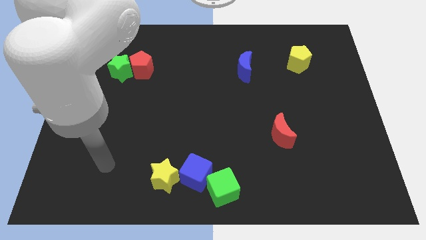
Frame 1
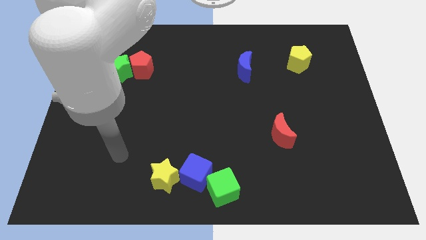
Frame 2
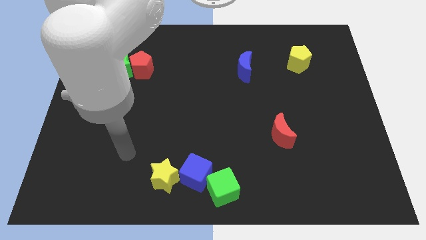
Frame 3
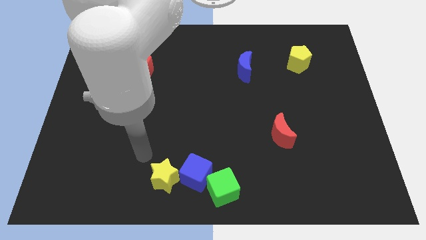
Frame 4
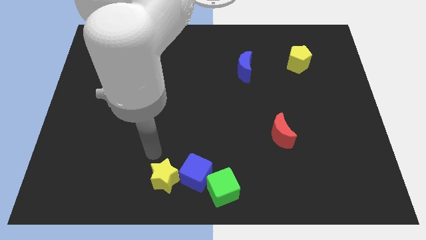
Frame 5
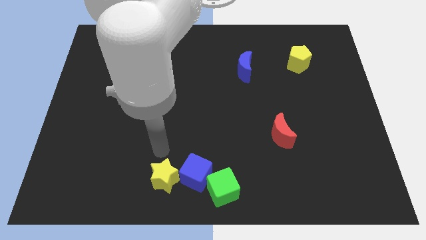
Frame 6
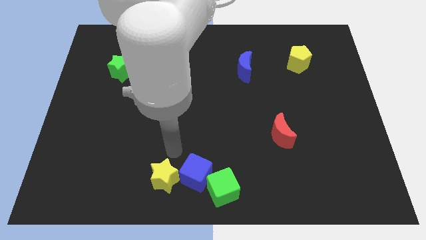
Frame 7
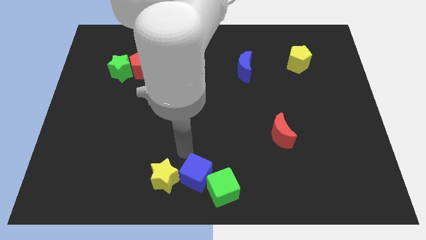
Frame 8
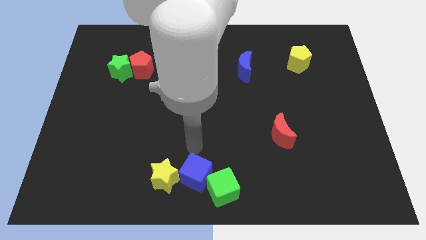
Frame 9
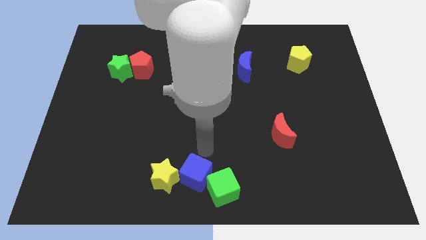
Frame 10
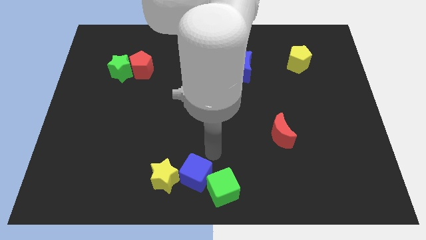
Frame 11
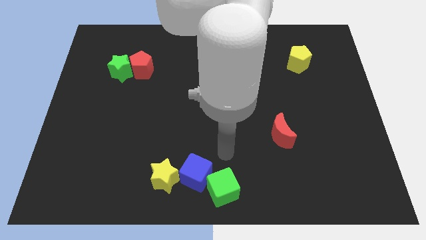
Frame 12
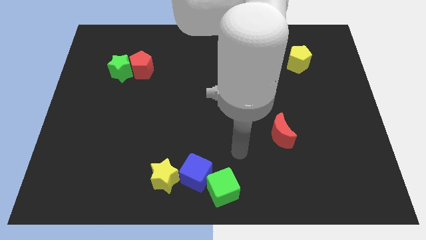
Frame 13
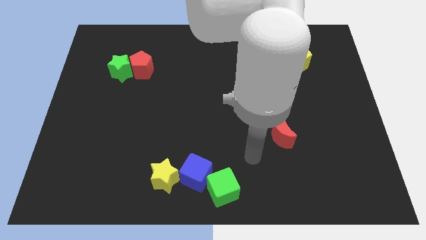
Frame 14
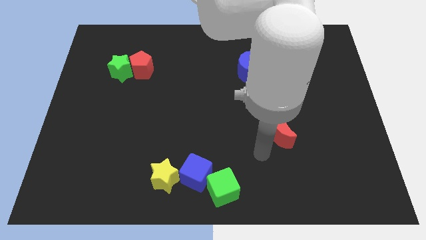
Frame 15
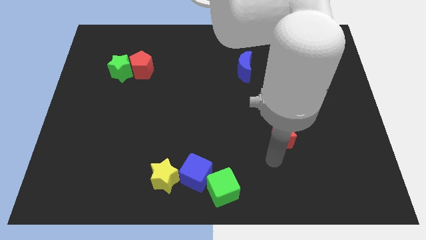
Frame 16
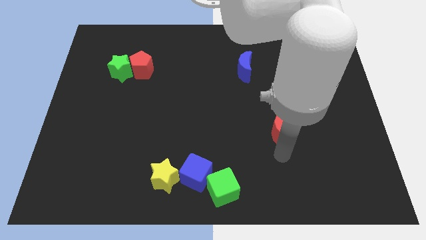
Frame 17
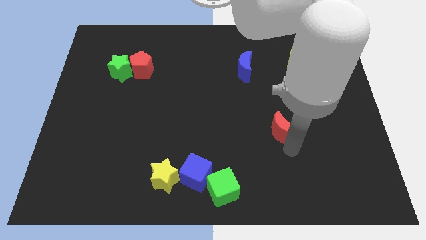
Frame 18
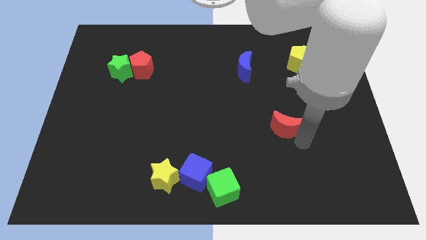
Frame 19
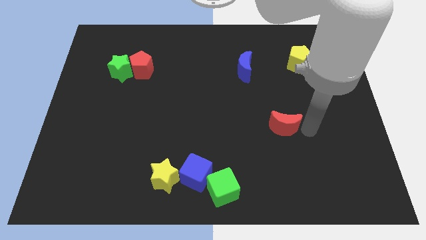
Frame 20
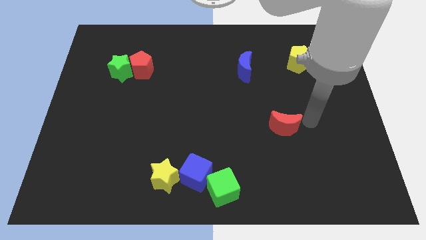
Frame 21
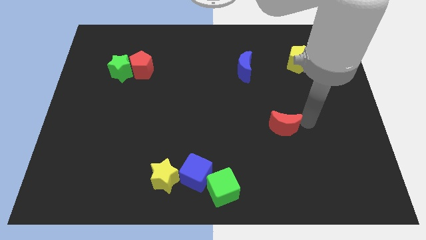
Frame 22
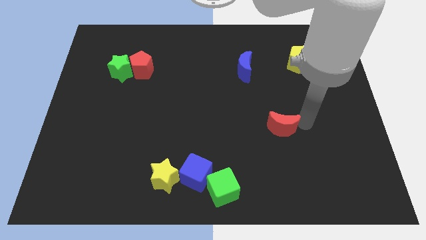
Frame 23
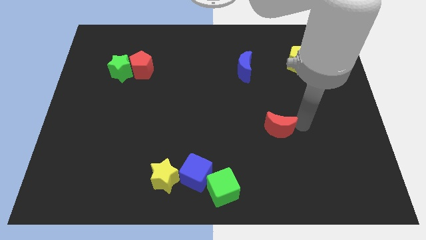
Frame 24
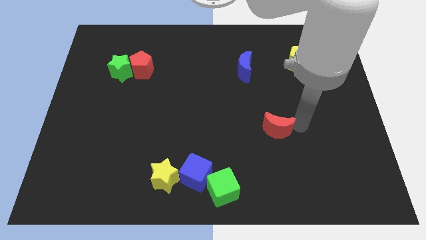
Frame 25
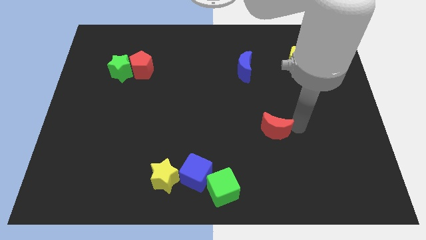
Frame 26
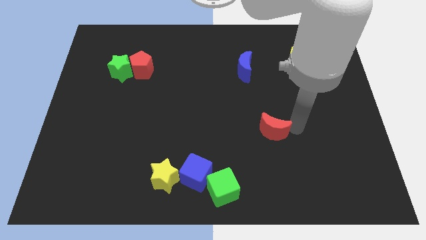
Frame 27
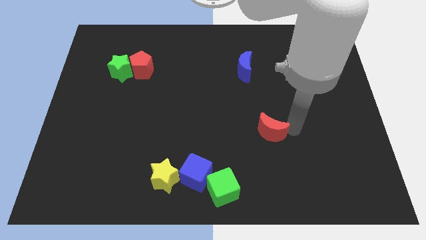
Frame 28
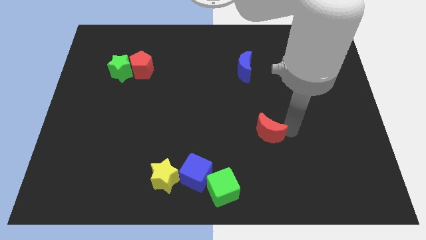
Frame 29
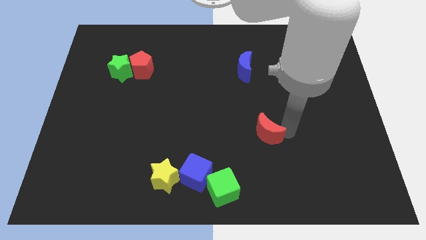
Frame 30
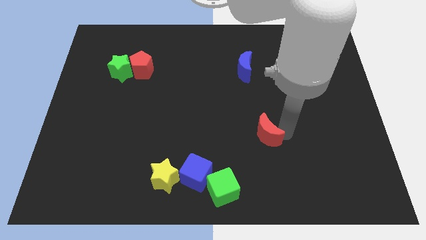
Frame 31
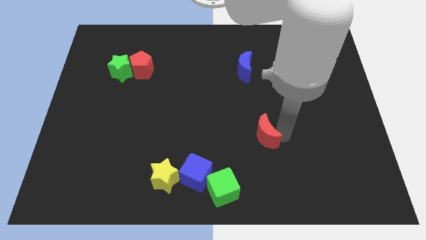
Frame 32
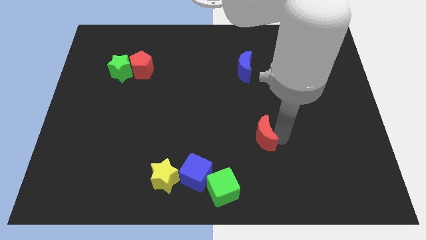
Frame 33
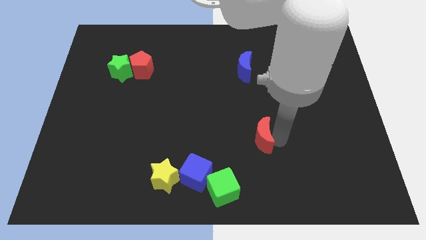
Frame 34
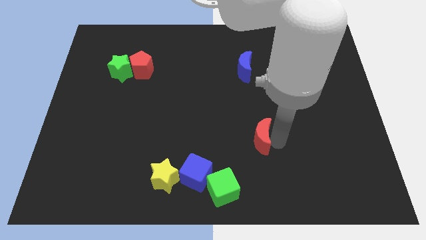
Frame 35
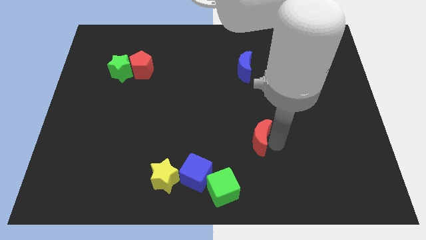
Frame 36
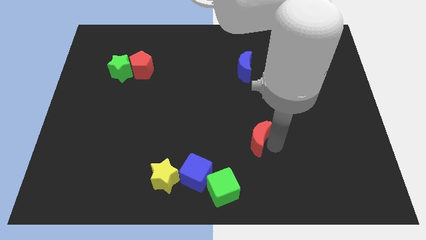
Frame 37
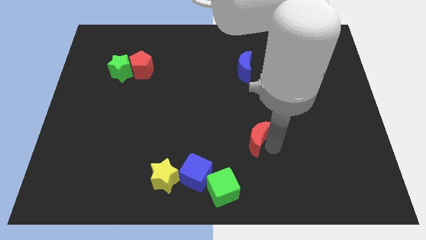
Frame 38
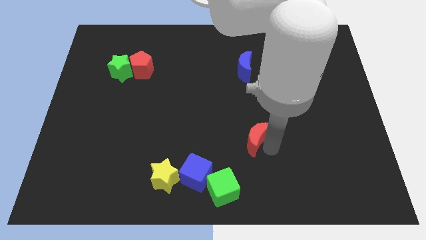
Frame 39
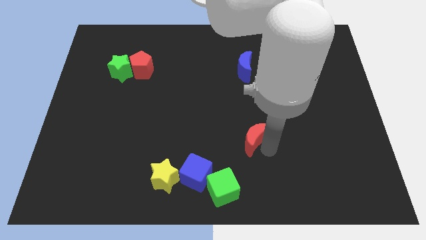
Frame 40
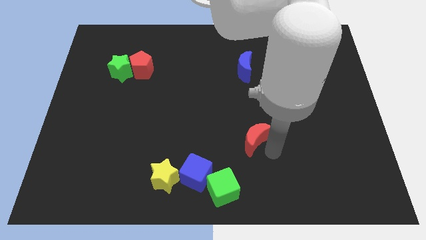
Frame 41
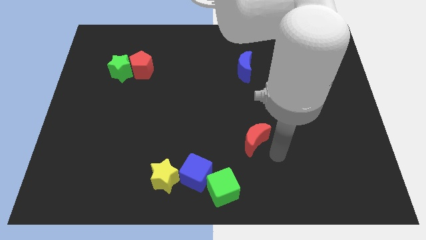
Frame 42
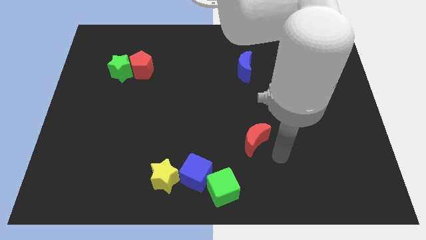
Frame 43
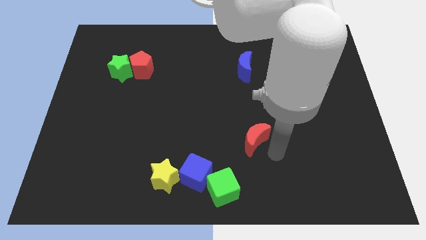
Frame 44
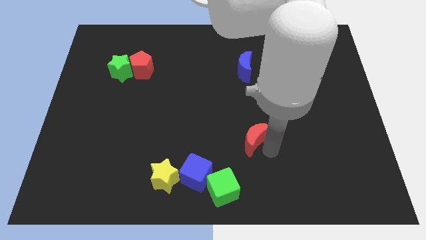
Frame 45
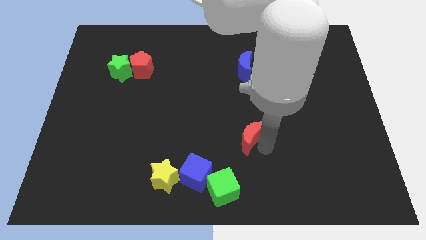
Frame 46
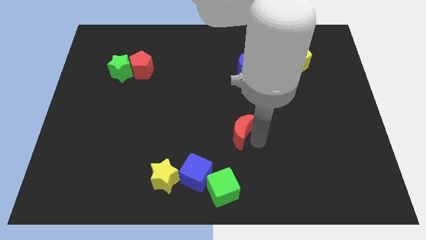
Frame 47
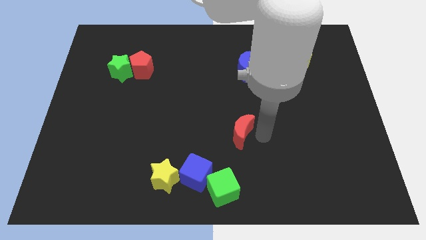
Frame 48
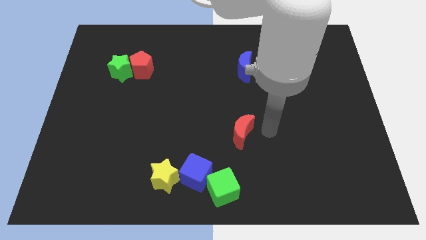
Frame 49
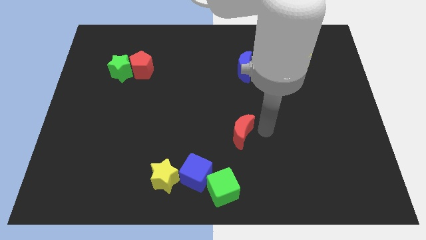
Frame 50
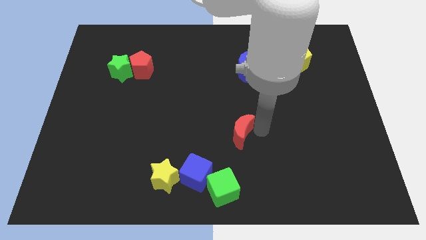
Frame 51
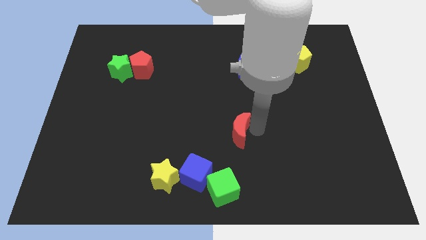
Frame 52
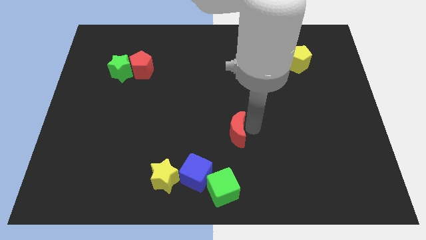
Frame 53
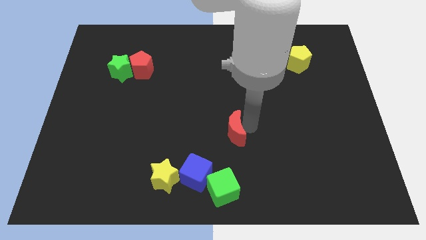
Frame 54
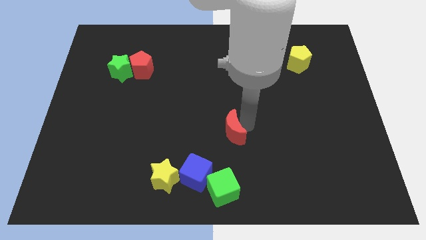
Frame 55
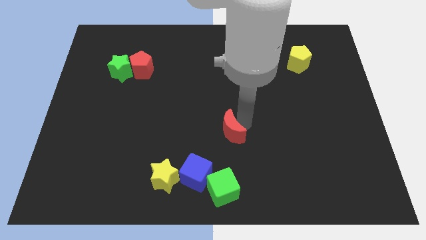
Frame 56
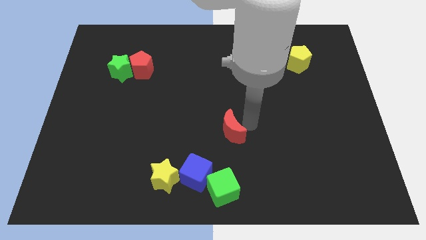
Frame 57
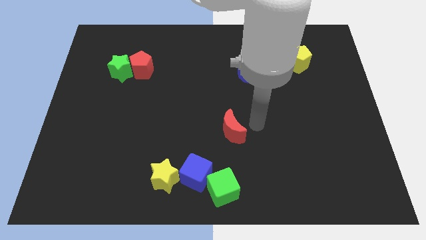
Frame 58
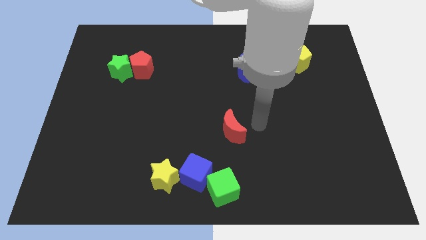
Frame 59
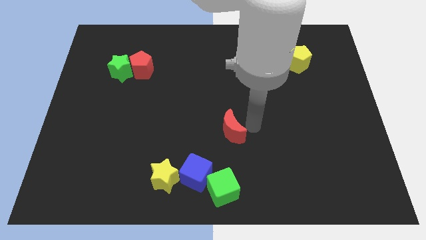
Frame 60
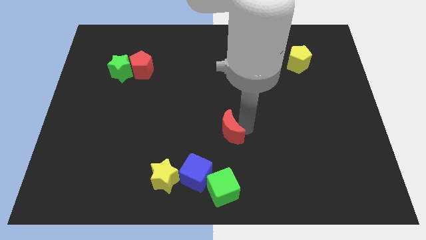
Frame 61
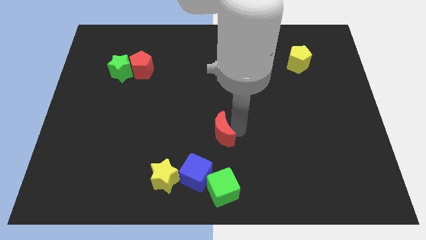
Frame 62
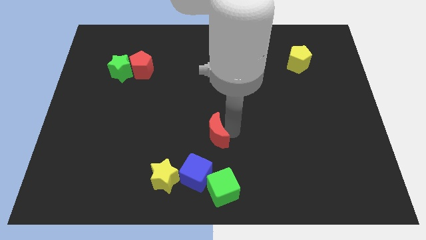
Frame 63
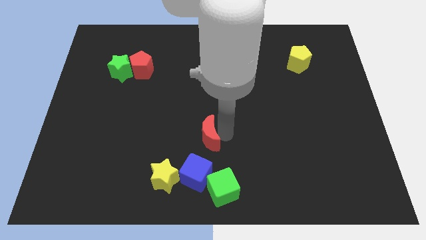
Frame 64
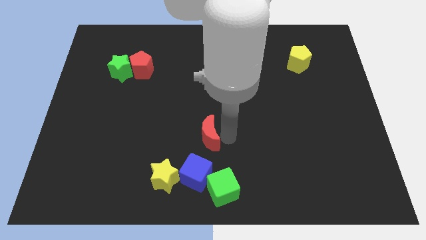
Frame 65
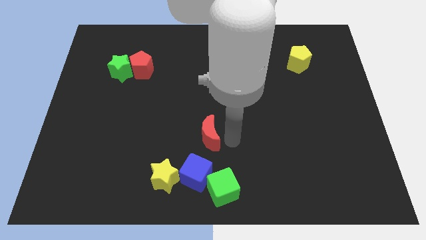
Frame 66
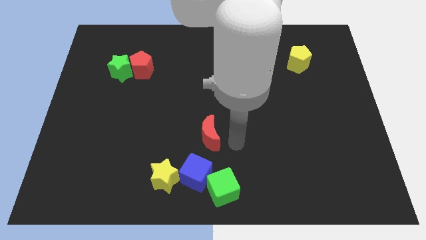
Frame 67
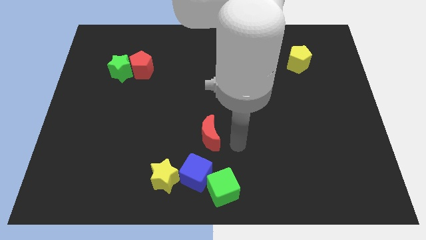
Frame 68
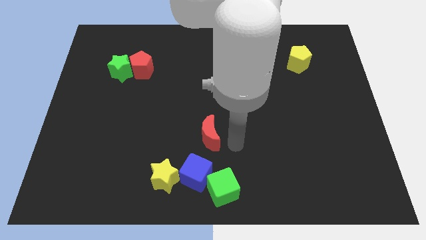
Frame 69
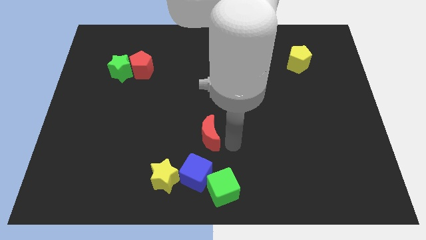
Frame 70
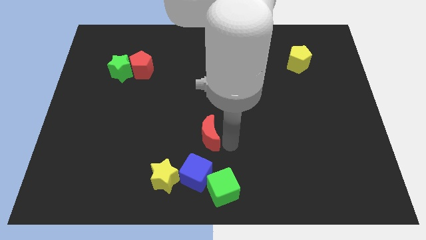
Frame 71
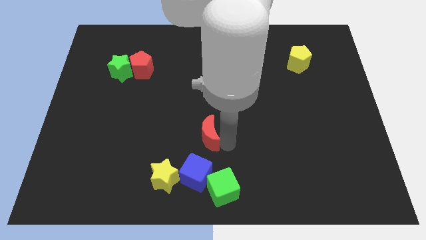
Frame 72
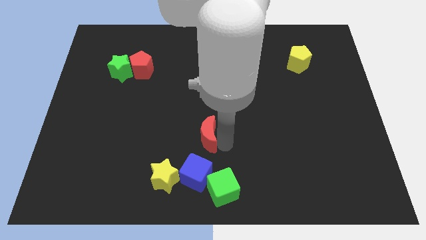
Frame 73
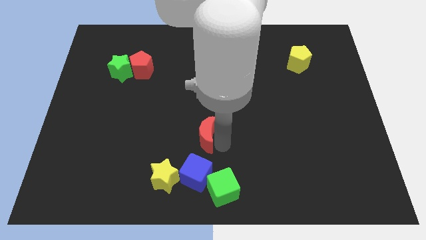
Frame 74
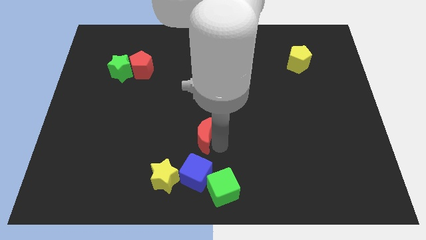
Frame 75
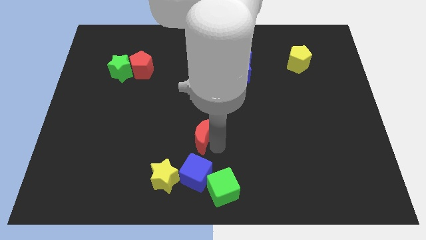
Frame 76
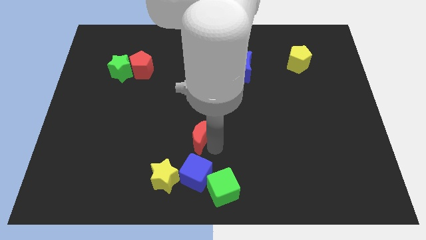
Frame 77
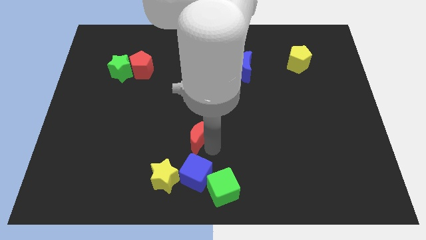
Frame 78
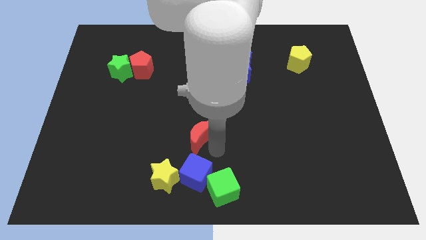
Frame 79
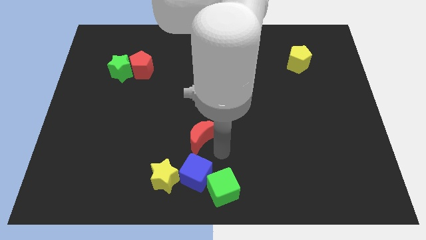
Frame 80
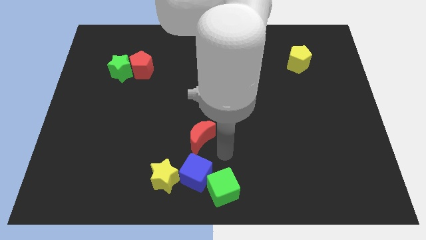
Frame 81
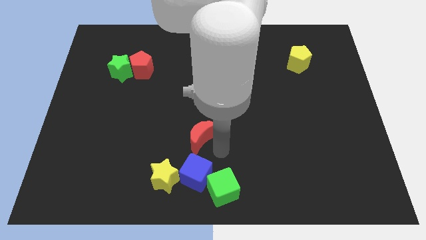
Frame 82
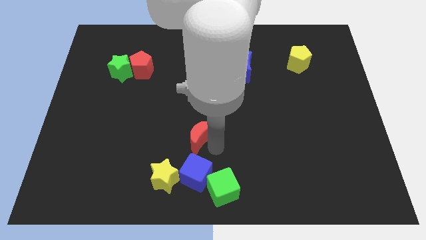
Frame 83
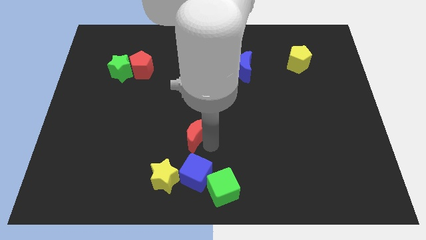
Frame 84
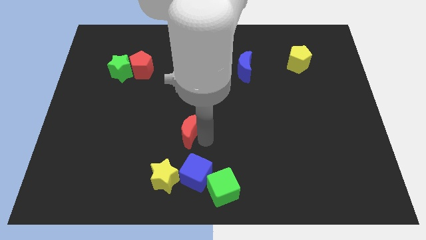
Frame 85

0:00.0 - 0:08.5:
slide the red moon to the top of the yellow star
